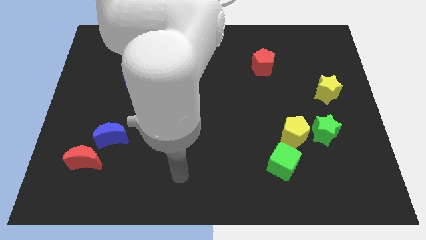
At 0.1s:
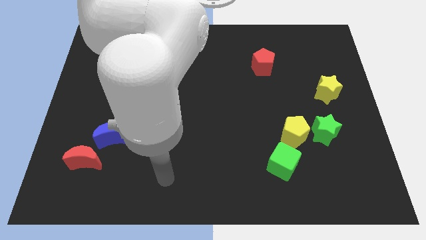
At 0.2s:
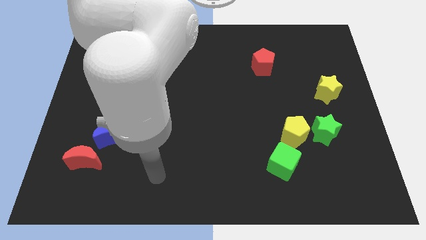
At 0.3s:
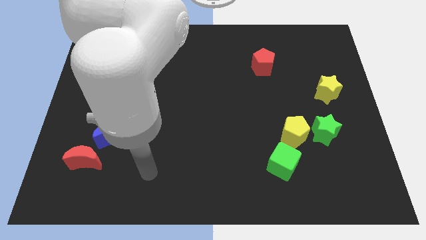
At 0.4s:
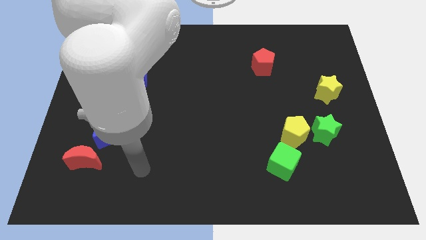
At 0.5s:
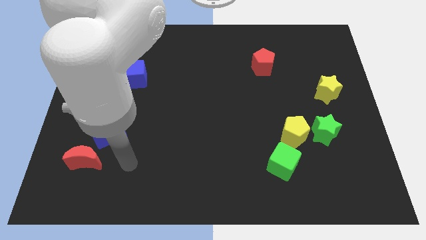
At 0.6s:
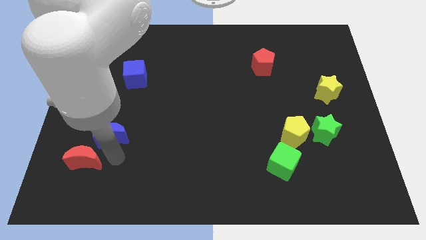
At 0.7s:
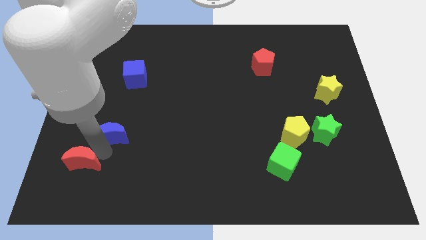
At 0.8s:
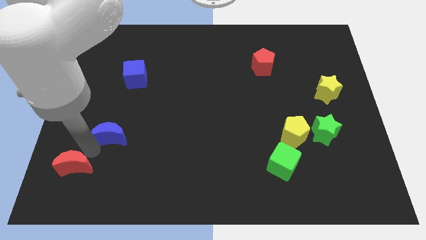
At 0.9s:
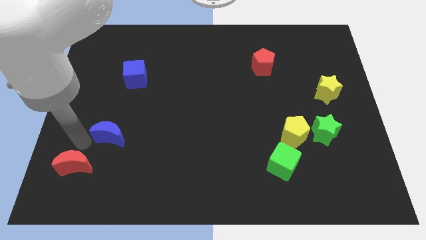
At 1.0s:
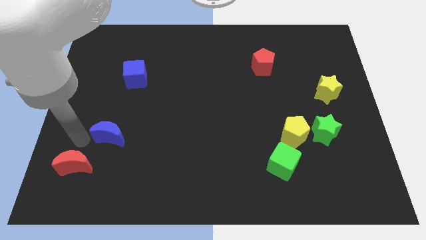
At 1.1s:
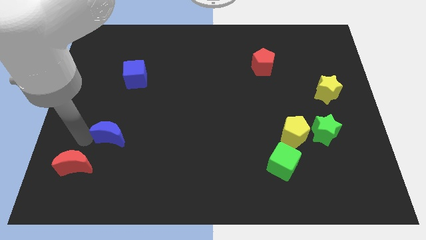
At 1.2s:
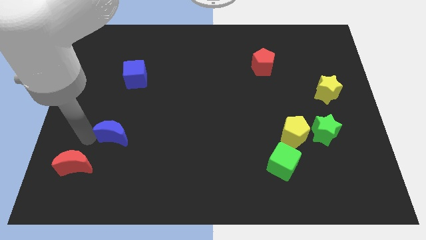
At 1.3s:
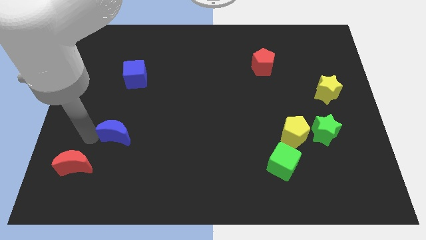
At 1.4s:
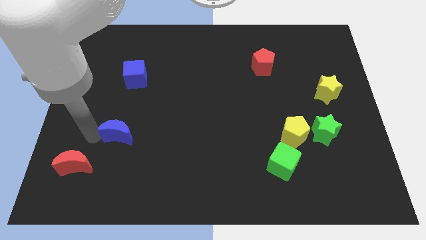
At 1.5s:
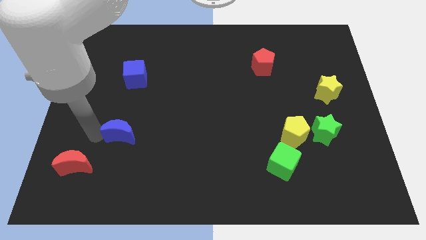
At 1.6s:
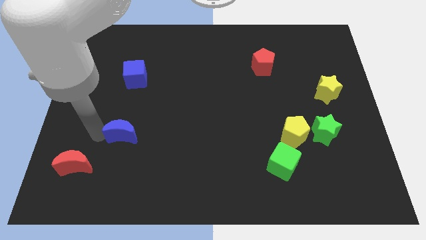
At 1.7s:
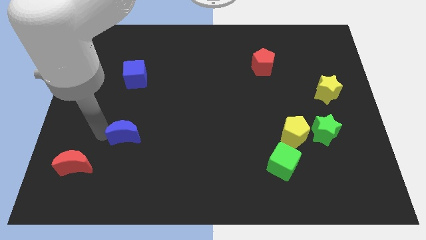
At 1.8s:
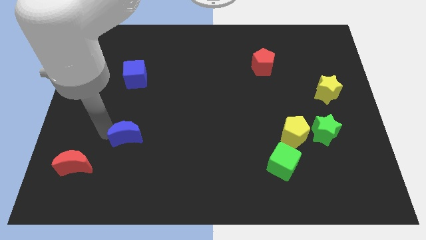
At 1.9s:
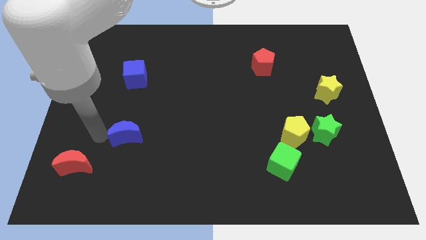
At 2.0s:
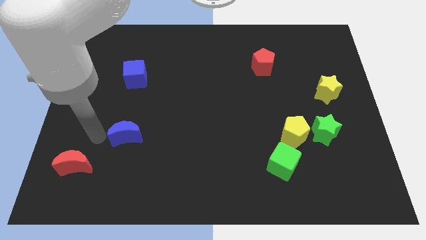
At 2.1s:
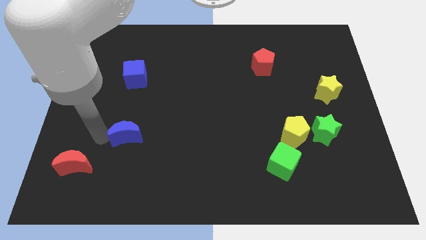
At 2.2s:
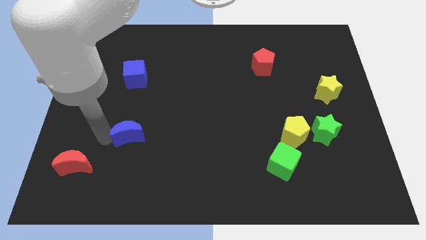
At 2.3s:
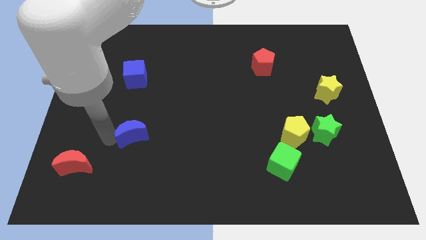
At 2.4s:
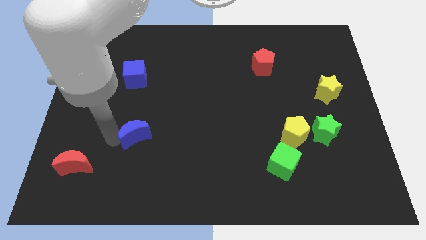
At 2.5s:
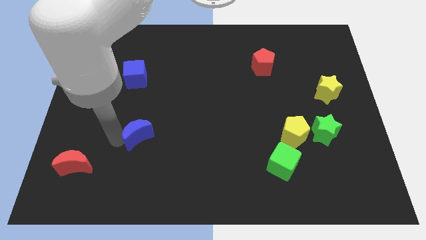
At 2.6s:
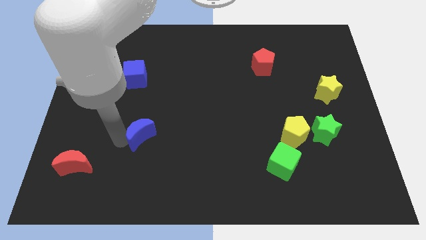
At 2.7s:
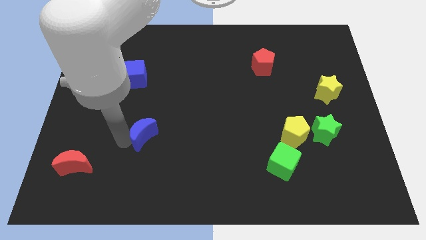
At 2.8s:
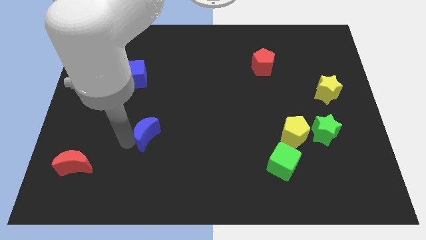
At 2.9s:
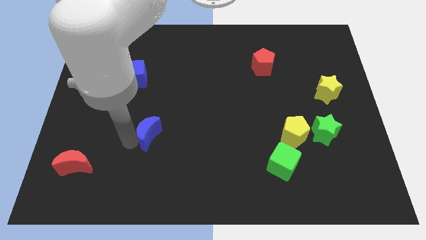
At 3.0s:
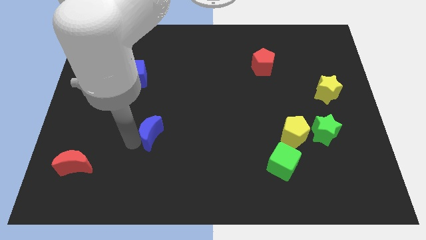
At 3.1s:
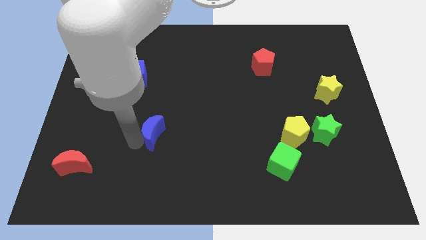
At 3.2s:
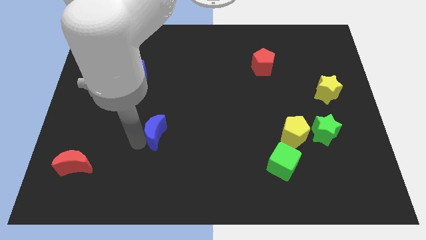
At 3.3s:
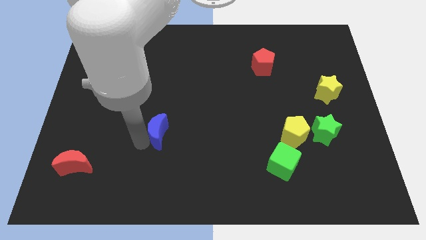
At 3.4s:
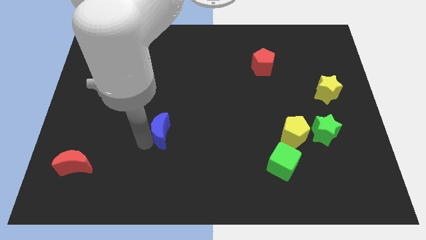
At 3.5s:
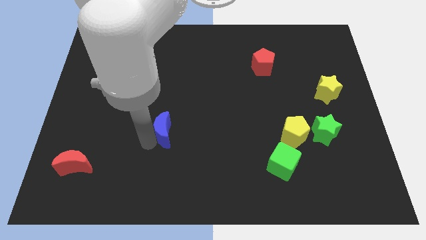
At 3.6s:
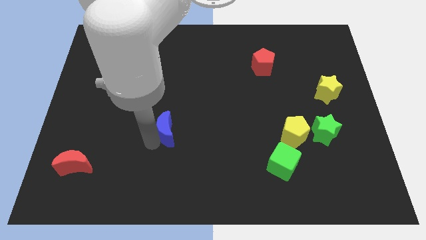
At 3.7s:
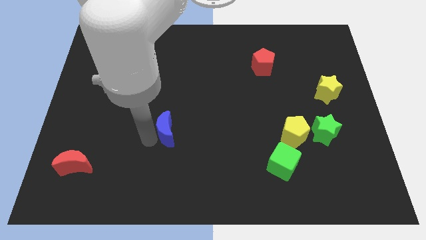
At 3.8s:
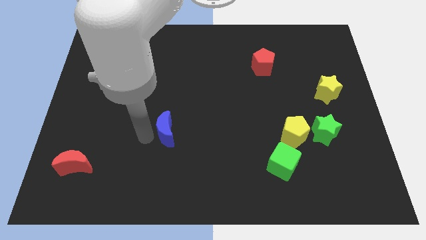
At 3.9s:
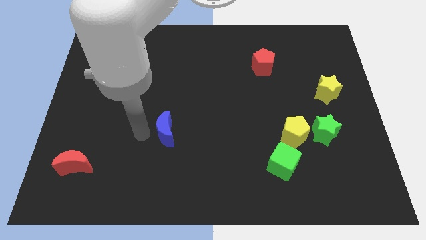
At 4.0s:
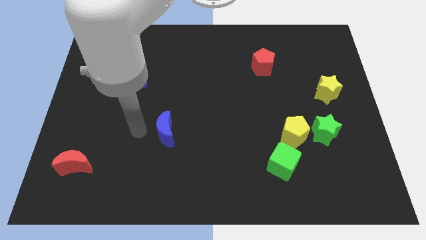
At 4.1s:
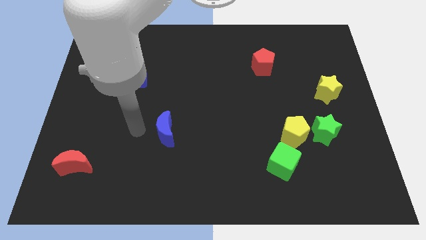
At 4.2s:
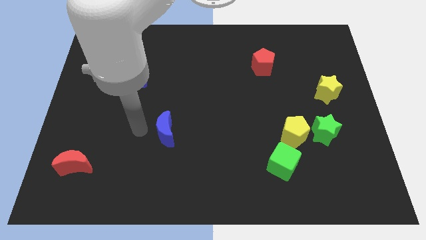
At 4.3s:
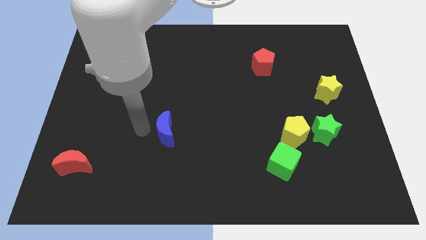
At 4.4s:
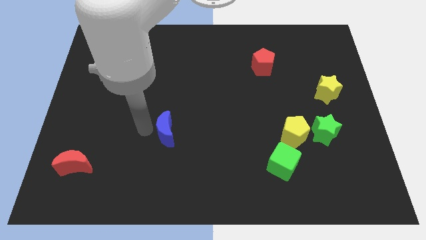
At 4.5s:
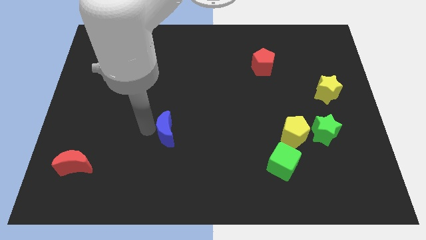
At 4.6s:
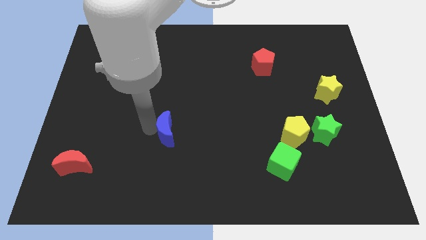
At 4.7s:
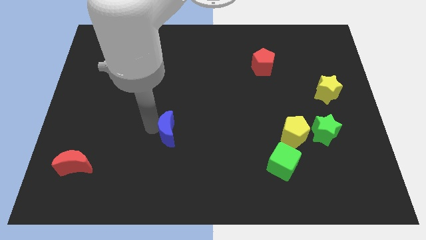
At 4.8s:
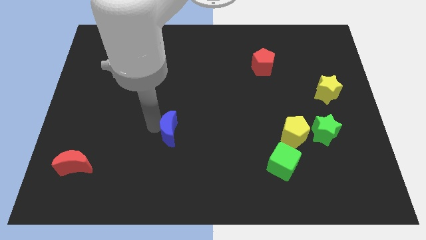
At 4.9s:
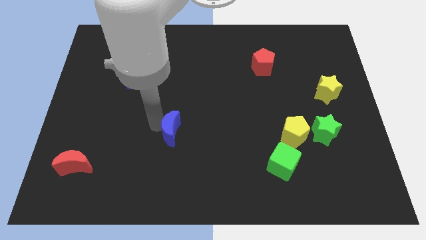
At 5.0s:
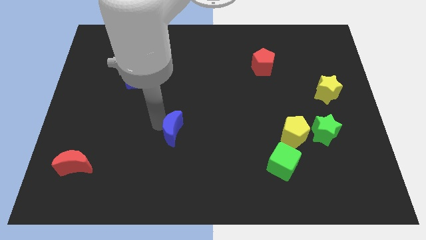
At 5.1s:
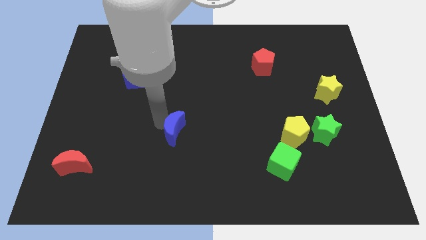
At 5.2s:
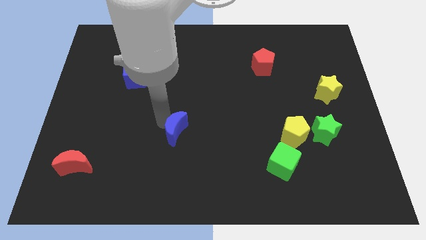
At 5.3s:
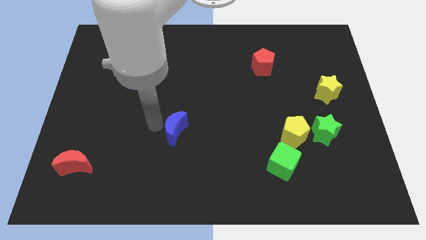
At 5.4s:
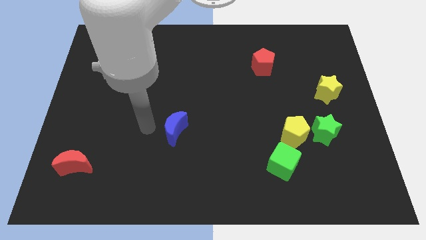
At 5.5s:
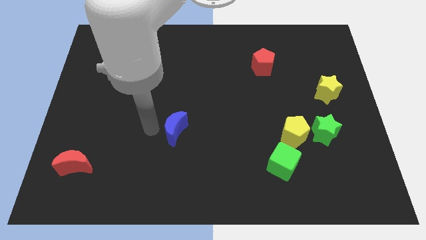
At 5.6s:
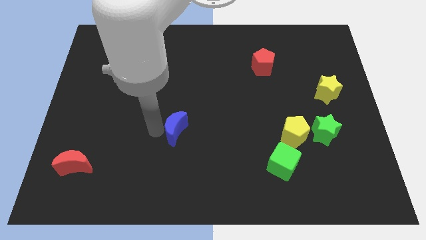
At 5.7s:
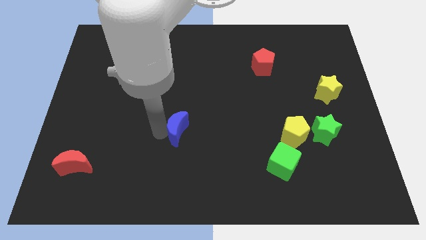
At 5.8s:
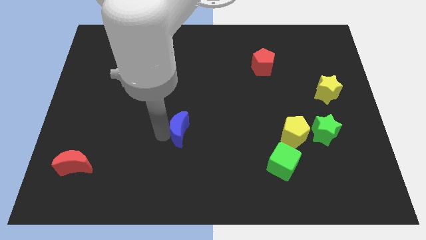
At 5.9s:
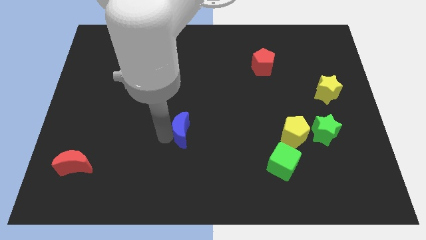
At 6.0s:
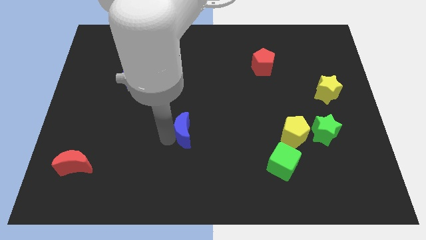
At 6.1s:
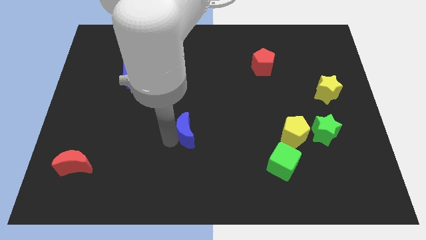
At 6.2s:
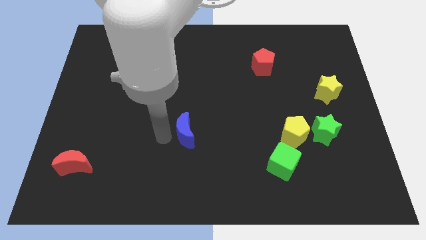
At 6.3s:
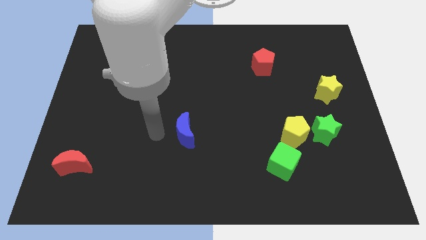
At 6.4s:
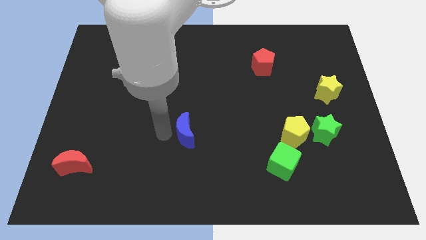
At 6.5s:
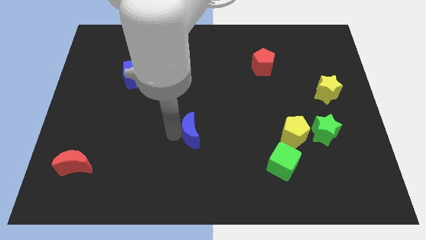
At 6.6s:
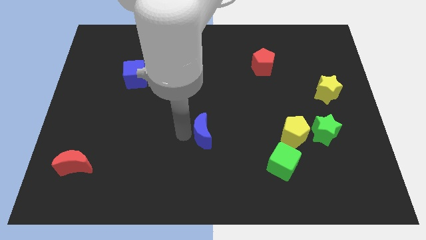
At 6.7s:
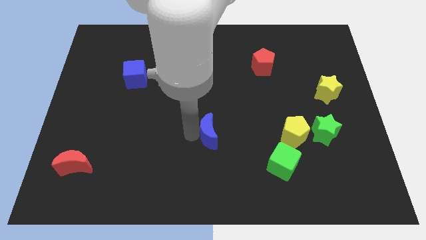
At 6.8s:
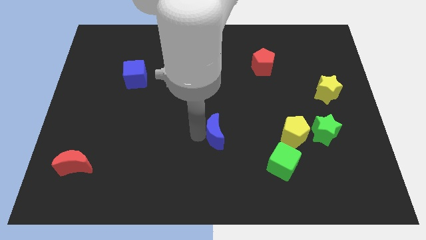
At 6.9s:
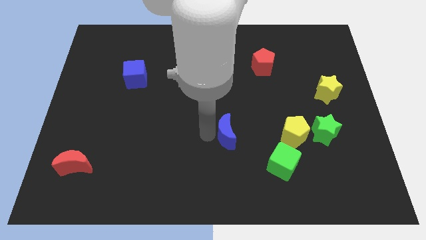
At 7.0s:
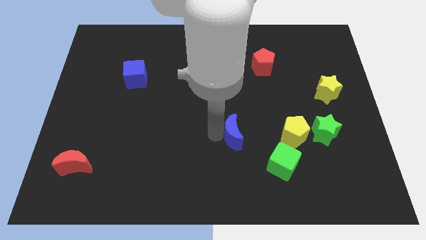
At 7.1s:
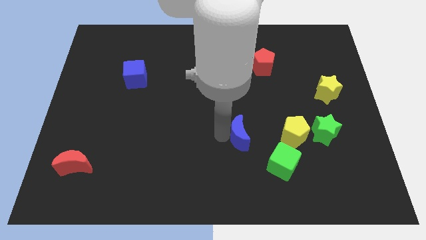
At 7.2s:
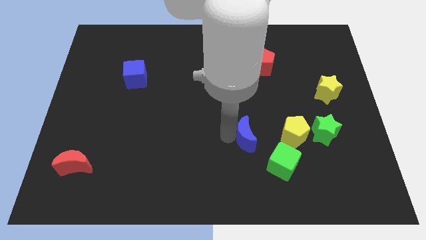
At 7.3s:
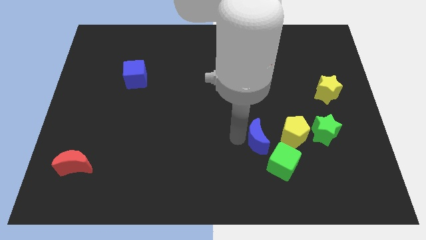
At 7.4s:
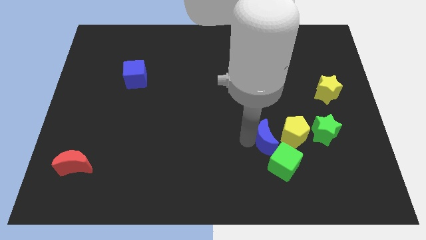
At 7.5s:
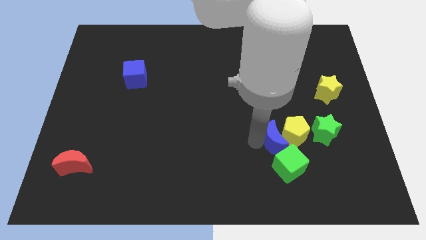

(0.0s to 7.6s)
slide the blue moon close to the yellow pentagon
